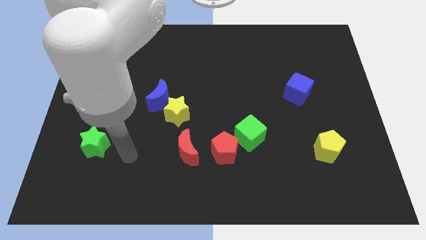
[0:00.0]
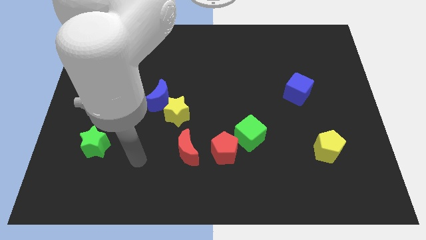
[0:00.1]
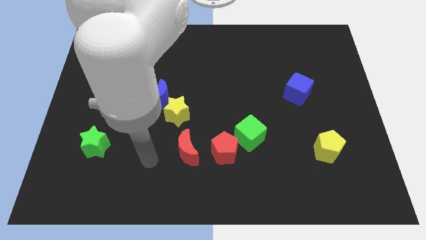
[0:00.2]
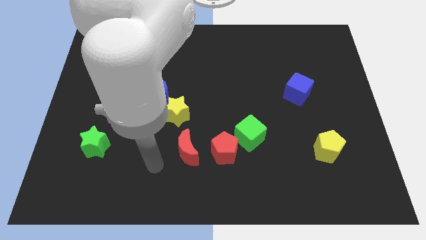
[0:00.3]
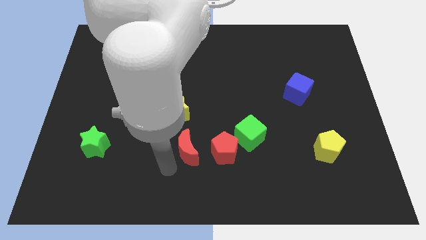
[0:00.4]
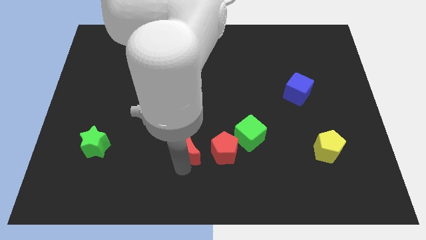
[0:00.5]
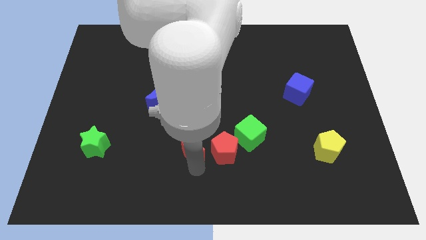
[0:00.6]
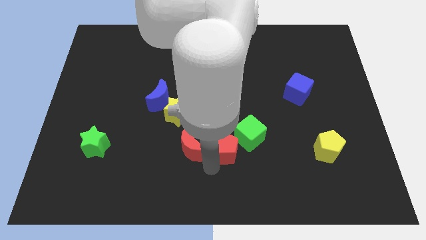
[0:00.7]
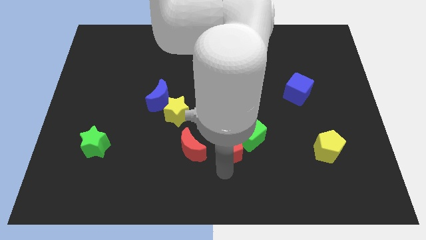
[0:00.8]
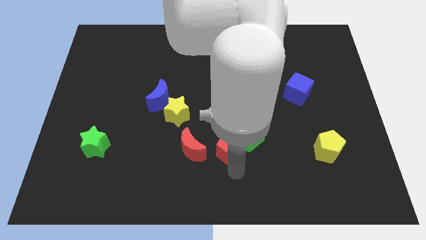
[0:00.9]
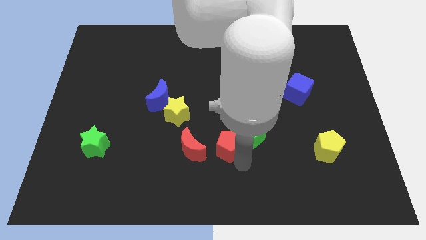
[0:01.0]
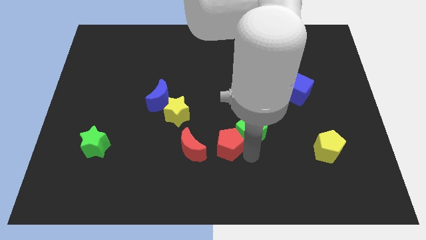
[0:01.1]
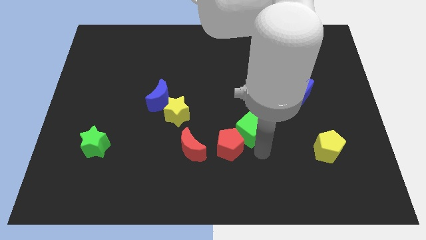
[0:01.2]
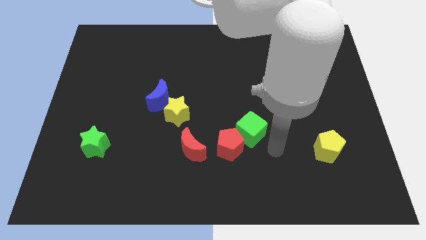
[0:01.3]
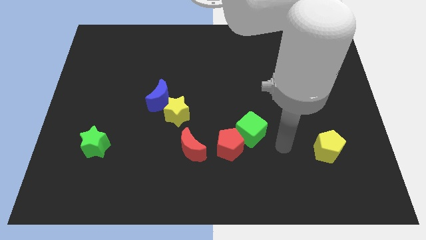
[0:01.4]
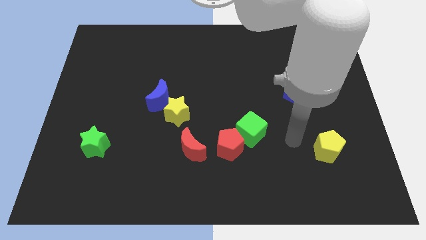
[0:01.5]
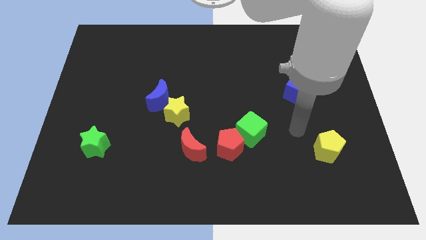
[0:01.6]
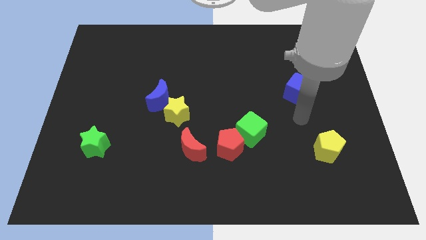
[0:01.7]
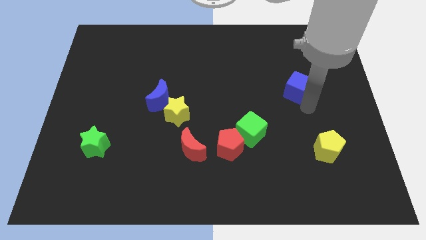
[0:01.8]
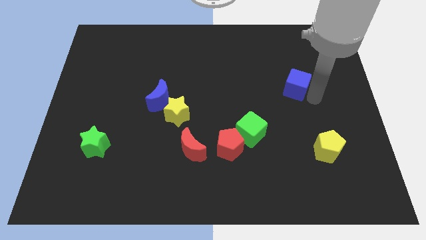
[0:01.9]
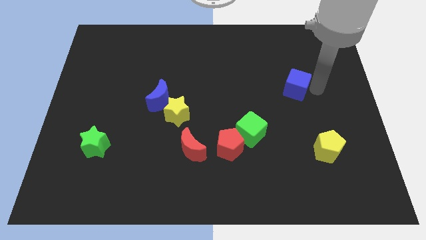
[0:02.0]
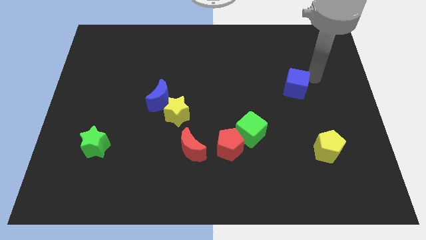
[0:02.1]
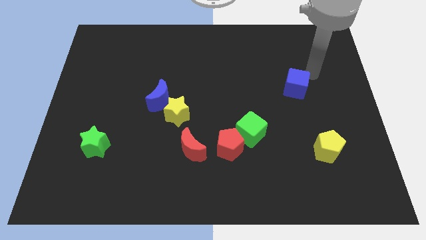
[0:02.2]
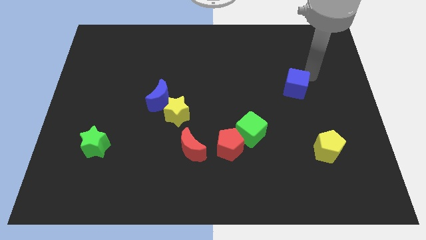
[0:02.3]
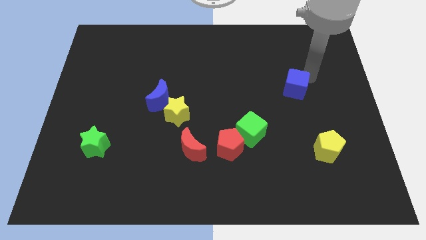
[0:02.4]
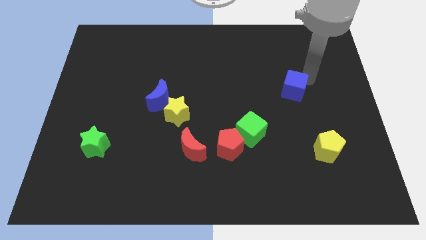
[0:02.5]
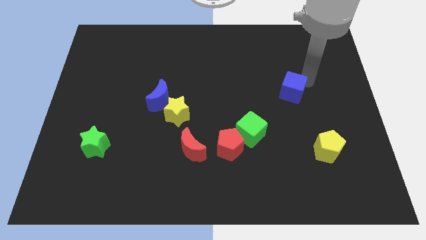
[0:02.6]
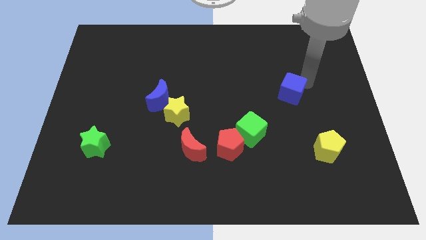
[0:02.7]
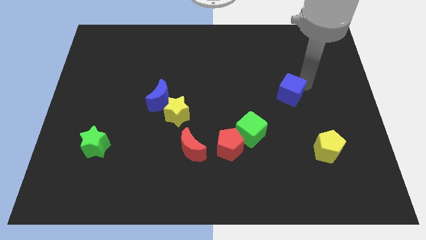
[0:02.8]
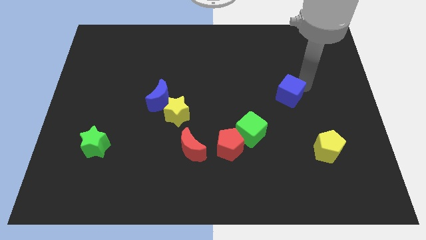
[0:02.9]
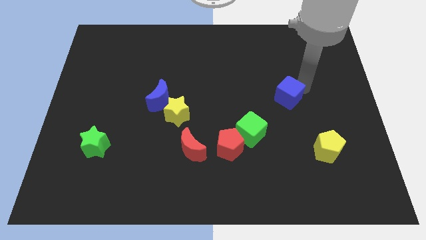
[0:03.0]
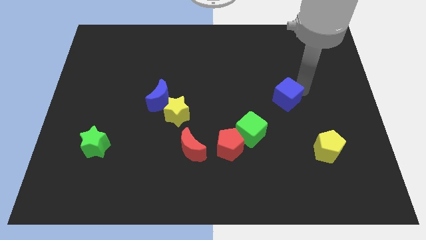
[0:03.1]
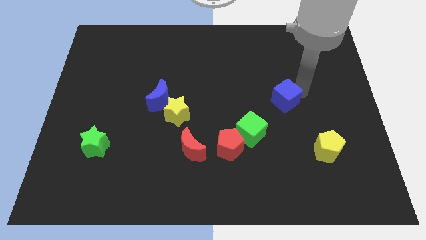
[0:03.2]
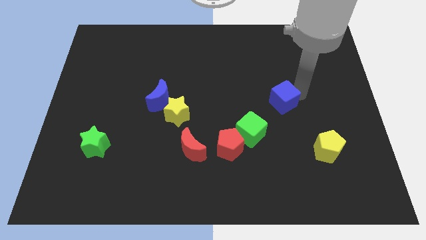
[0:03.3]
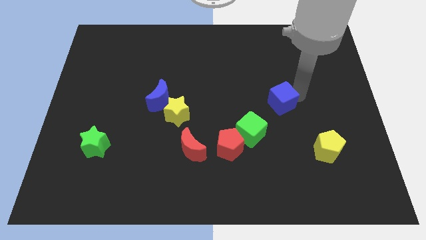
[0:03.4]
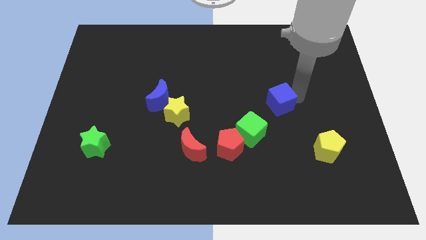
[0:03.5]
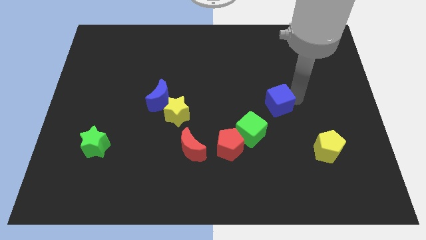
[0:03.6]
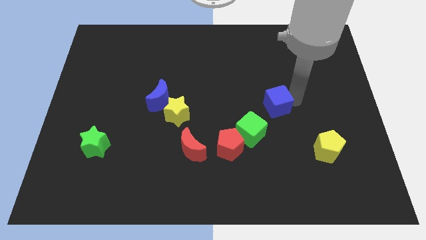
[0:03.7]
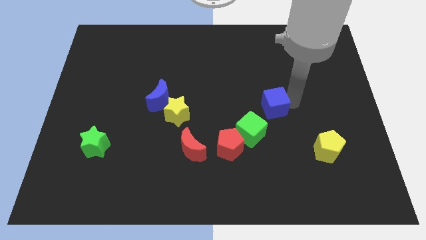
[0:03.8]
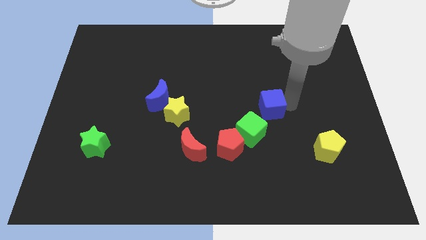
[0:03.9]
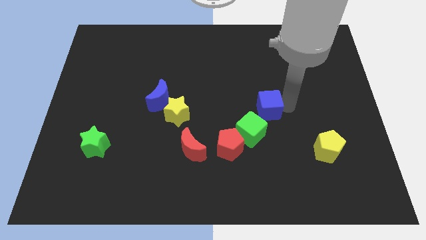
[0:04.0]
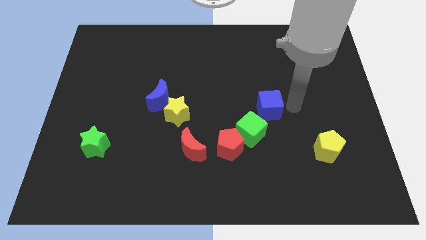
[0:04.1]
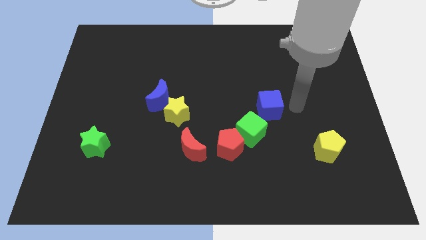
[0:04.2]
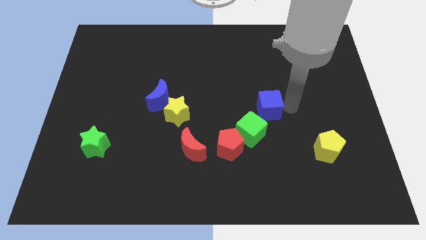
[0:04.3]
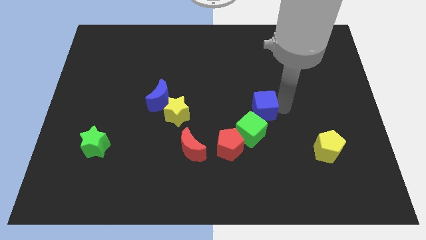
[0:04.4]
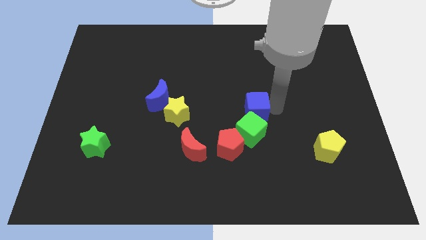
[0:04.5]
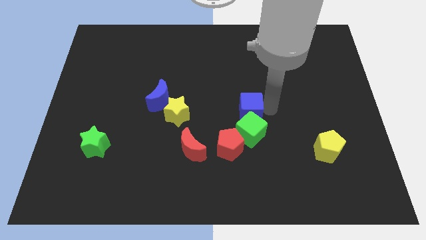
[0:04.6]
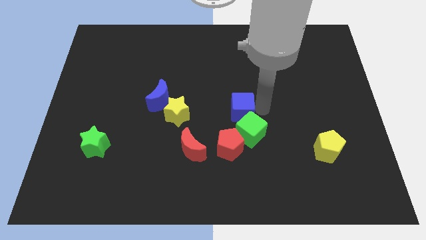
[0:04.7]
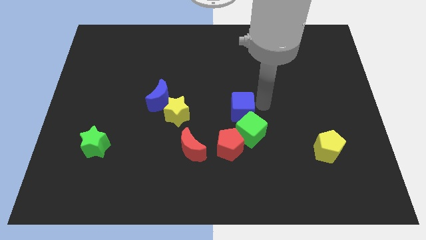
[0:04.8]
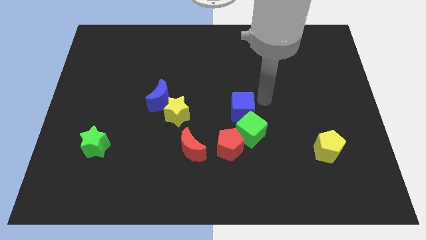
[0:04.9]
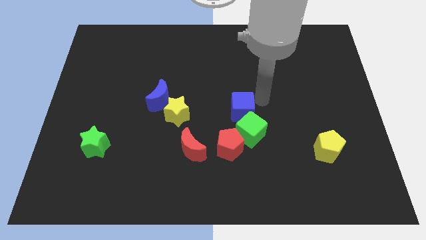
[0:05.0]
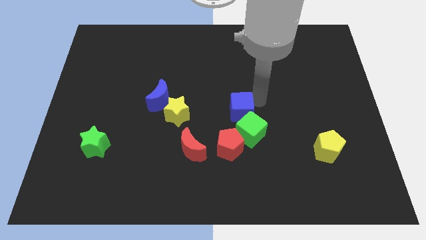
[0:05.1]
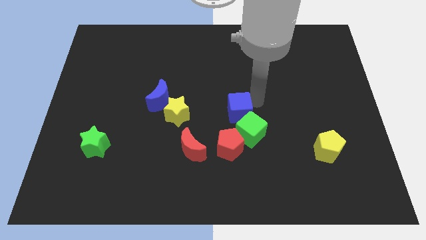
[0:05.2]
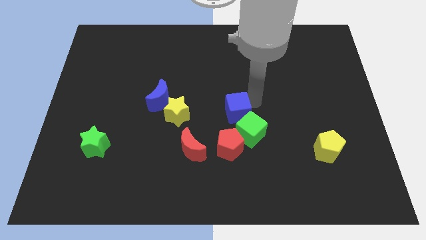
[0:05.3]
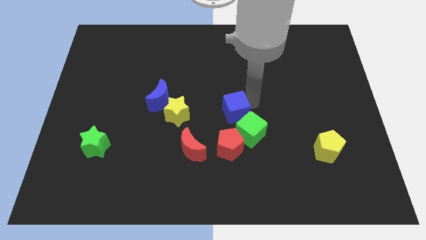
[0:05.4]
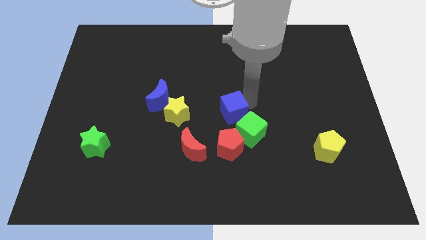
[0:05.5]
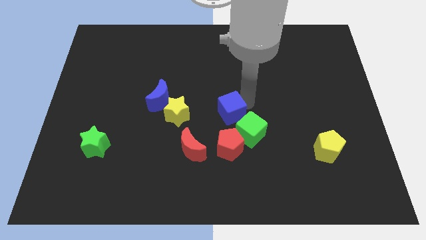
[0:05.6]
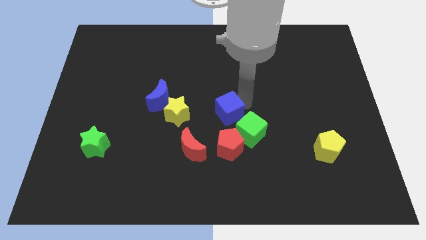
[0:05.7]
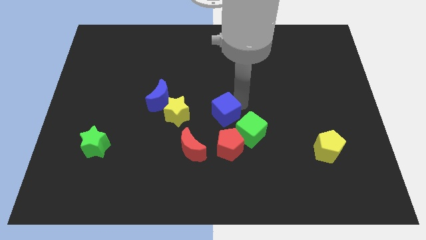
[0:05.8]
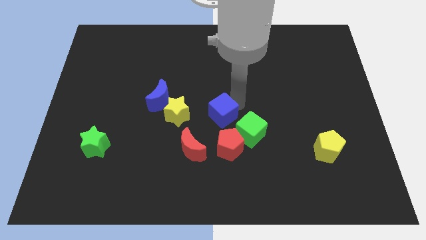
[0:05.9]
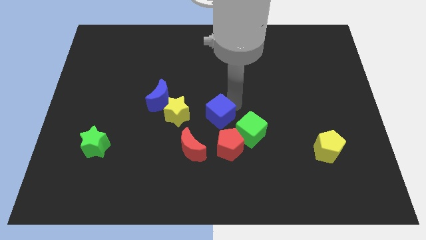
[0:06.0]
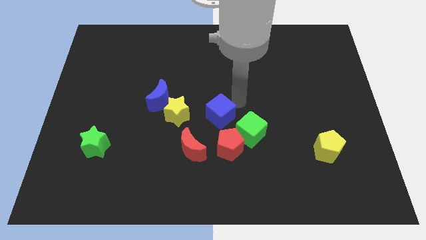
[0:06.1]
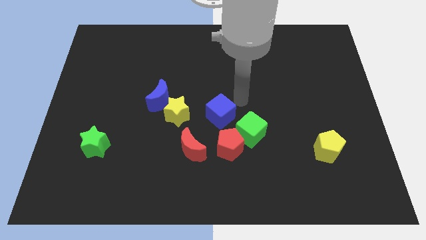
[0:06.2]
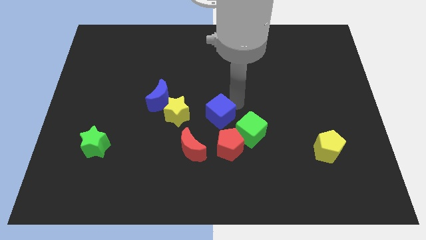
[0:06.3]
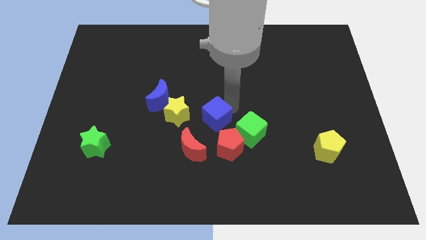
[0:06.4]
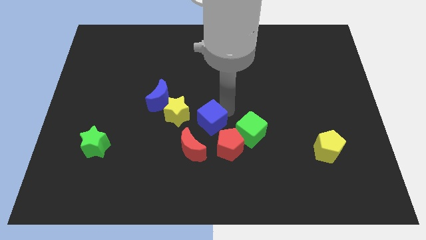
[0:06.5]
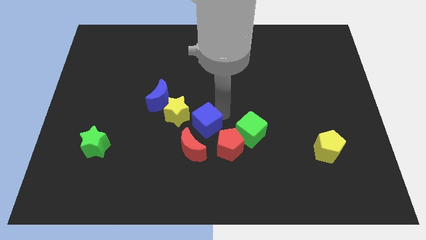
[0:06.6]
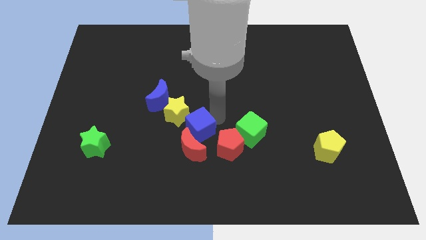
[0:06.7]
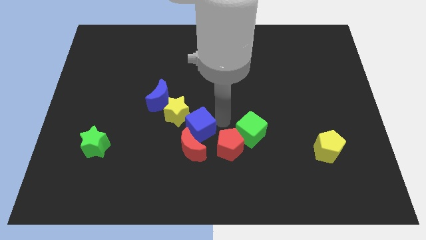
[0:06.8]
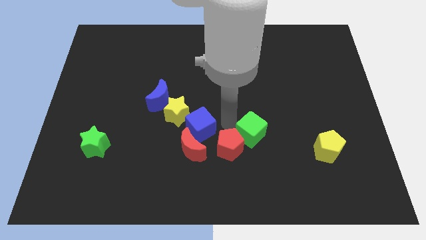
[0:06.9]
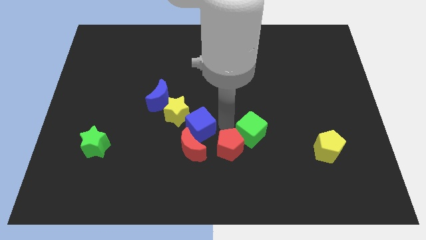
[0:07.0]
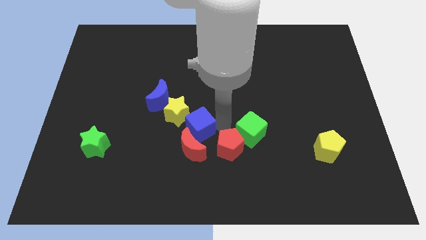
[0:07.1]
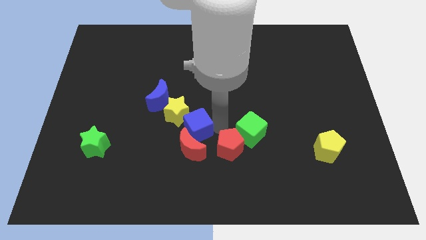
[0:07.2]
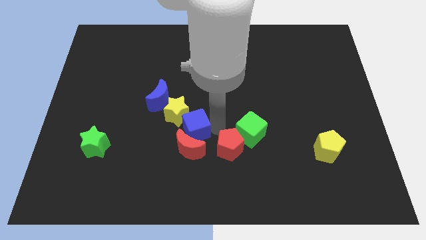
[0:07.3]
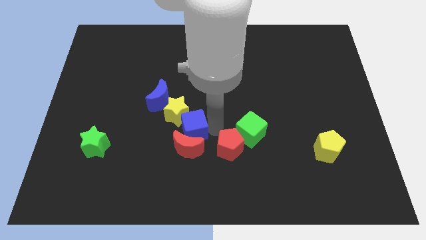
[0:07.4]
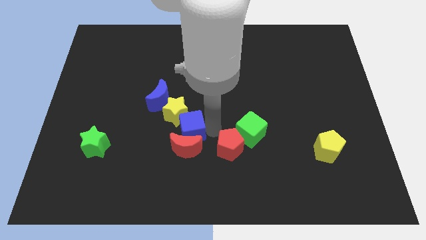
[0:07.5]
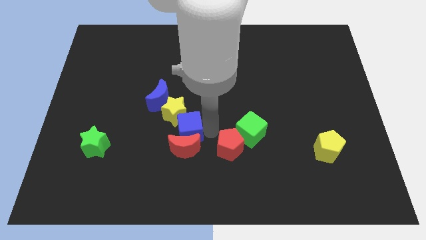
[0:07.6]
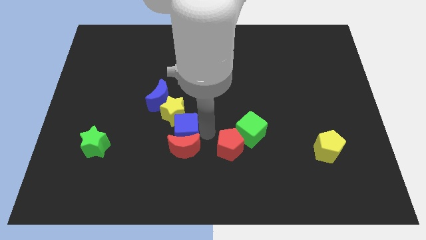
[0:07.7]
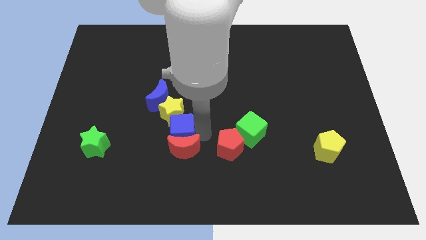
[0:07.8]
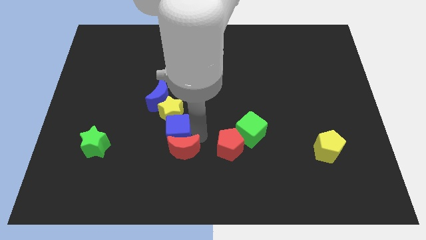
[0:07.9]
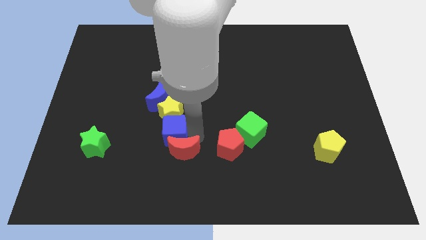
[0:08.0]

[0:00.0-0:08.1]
put the blue cube diagonally down and to the left of the yellow star
